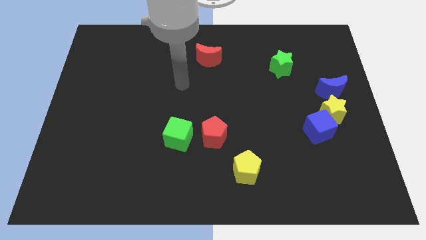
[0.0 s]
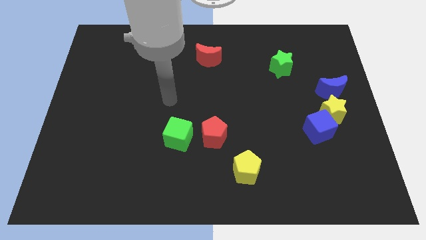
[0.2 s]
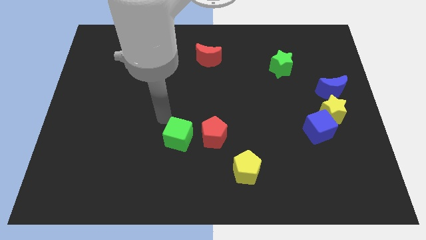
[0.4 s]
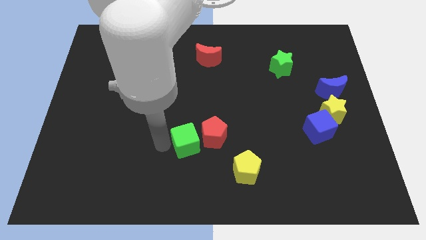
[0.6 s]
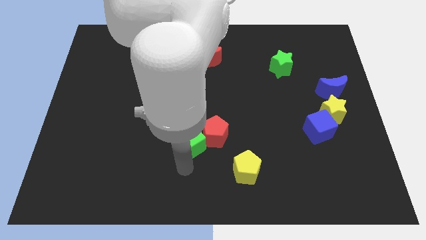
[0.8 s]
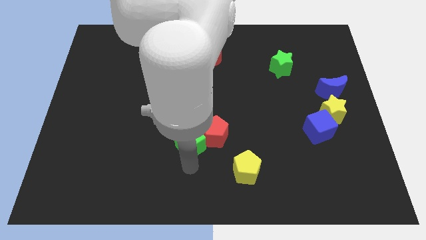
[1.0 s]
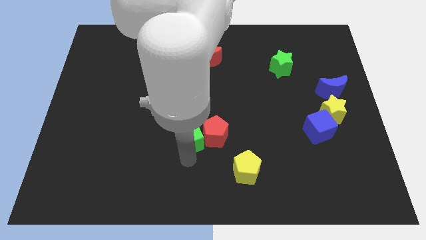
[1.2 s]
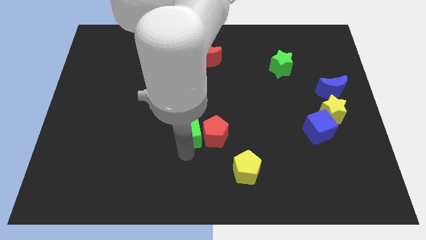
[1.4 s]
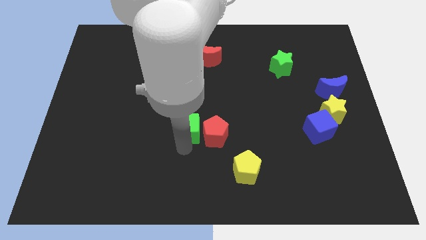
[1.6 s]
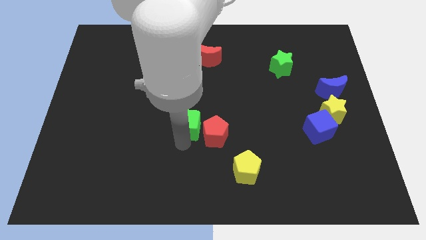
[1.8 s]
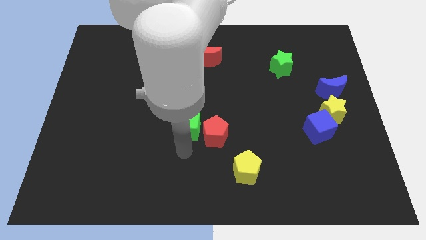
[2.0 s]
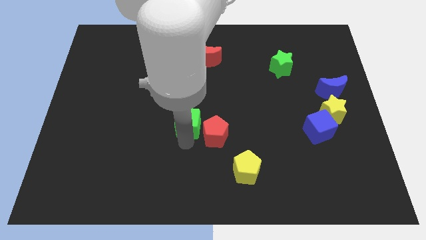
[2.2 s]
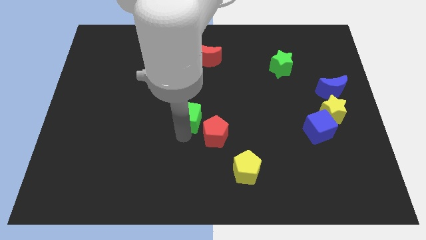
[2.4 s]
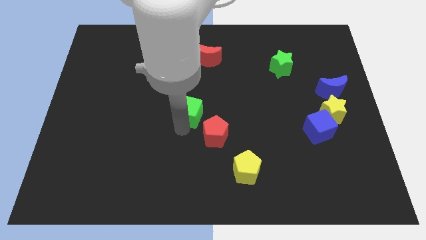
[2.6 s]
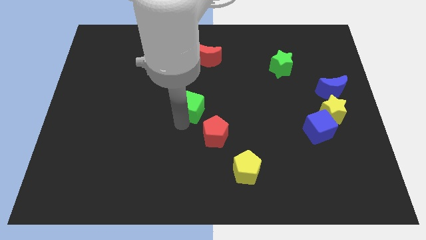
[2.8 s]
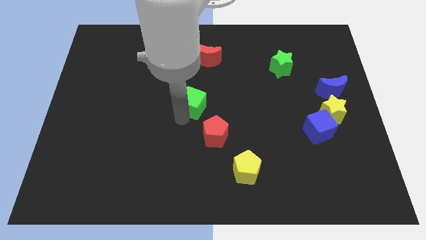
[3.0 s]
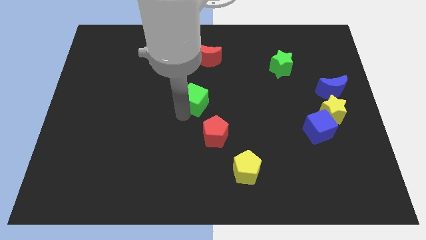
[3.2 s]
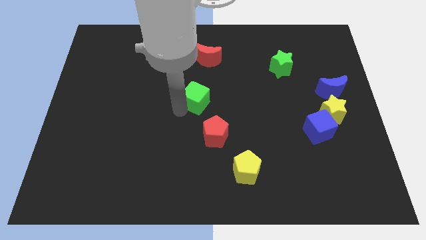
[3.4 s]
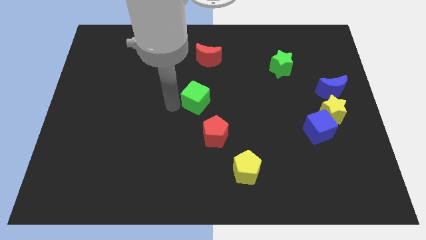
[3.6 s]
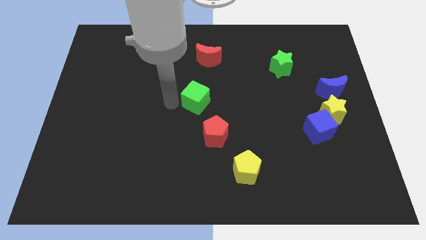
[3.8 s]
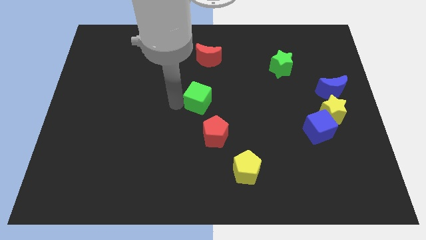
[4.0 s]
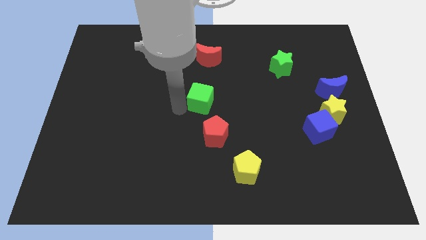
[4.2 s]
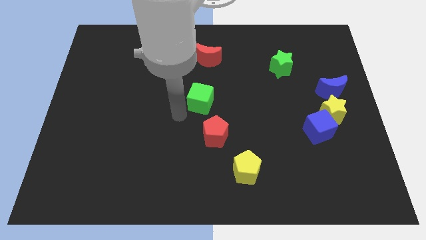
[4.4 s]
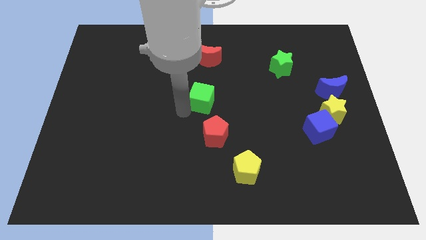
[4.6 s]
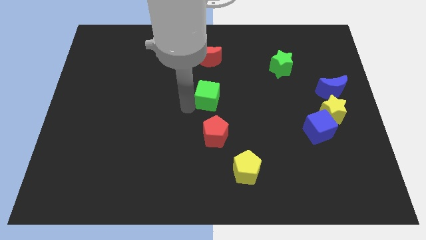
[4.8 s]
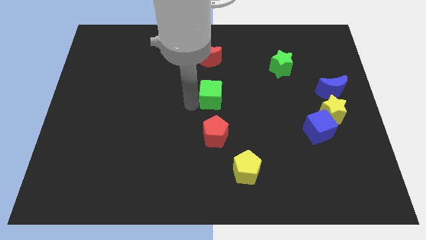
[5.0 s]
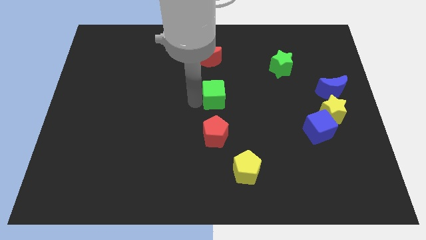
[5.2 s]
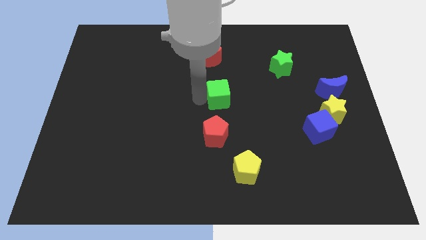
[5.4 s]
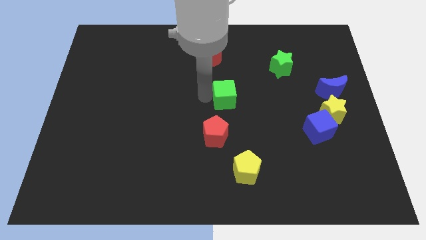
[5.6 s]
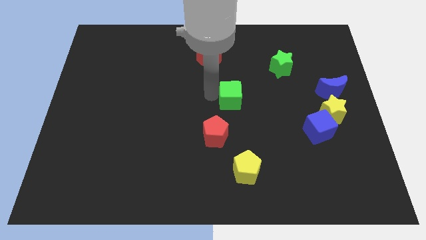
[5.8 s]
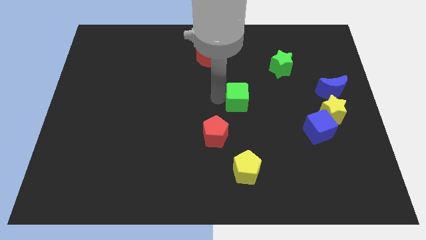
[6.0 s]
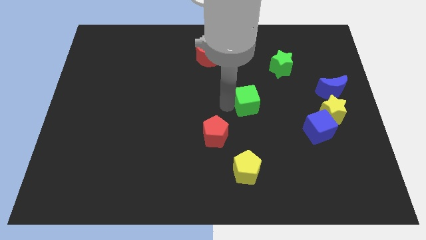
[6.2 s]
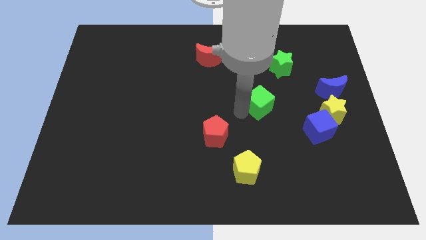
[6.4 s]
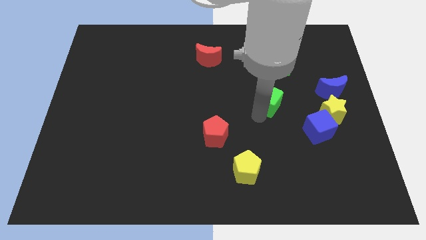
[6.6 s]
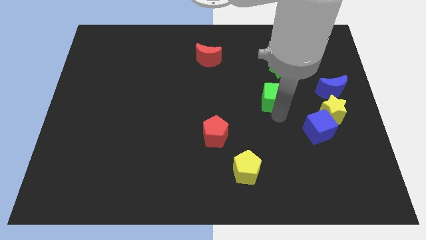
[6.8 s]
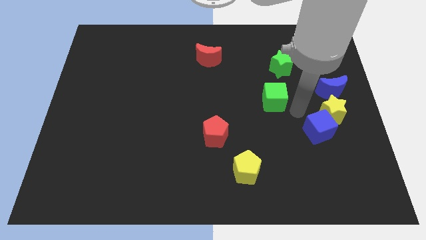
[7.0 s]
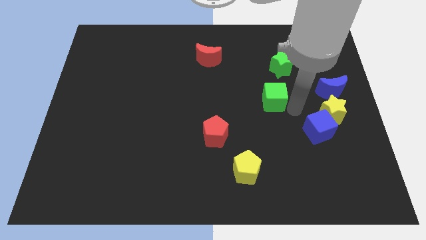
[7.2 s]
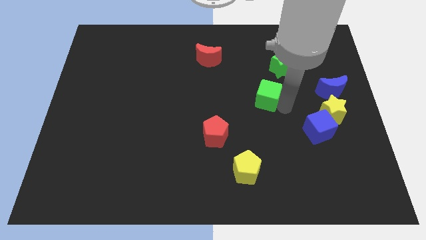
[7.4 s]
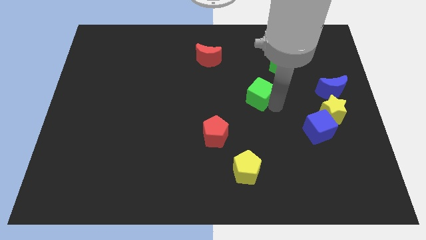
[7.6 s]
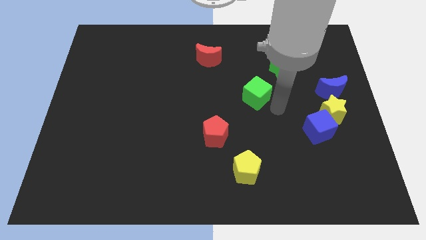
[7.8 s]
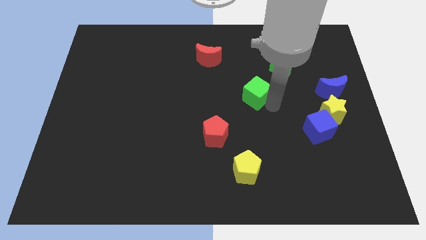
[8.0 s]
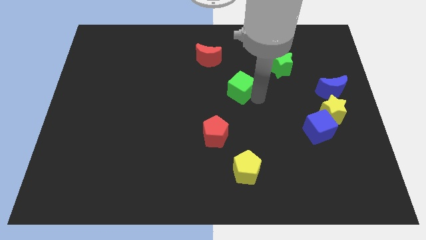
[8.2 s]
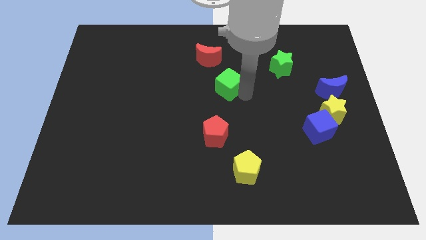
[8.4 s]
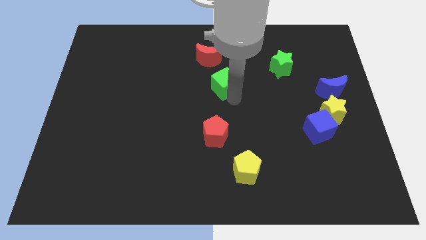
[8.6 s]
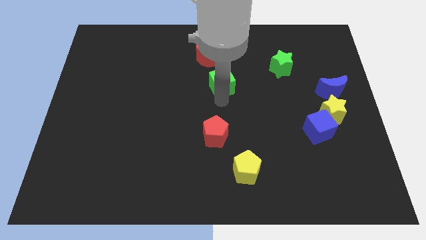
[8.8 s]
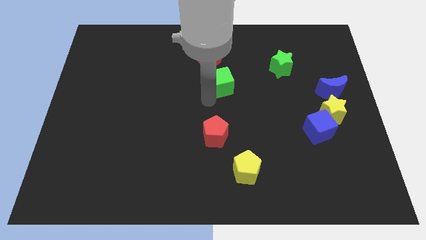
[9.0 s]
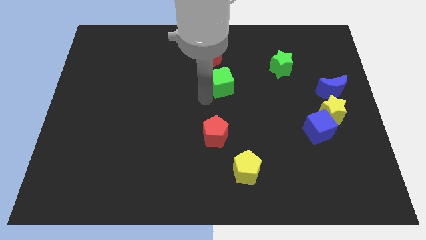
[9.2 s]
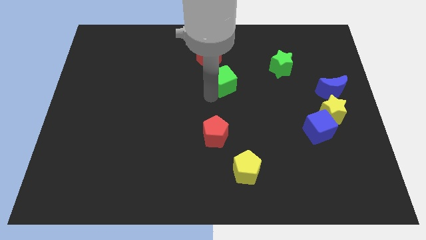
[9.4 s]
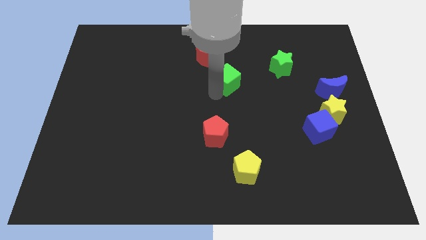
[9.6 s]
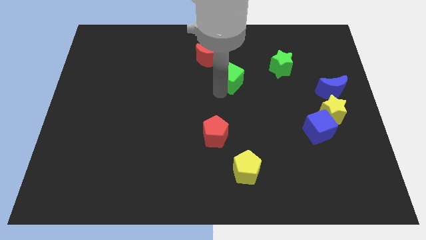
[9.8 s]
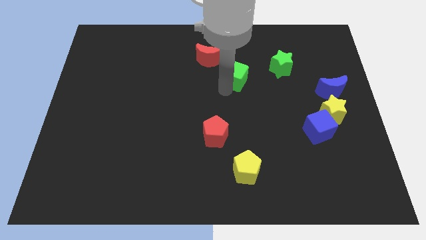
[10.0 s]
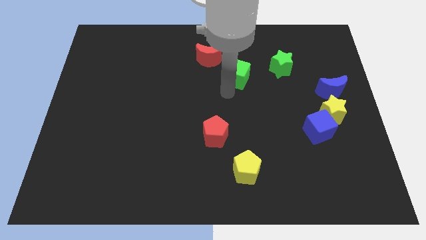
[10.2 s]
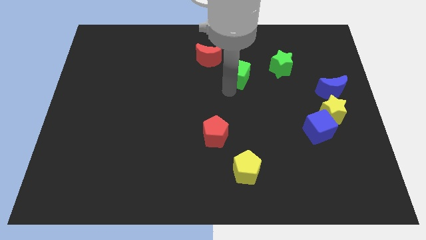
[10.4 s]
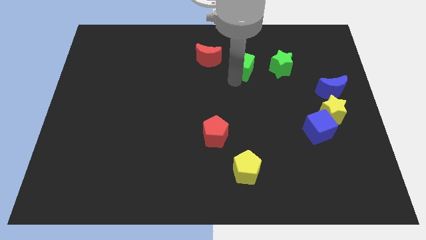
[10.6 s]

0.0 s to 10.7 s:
slide the green cube just right of the red moon
